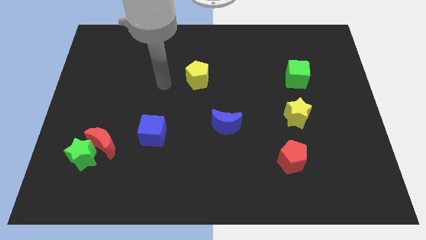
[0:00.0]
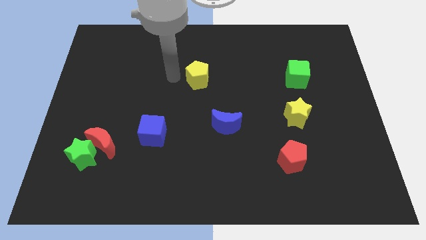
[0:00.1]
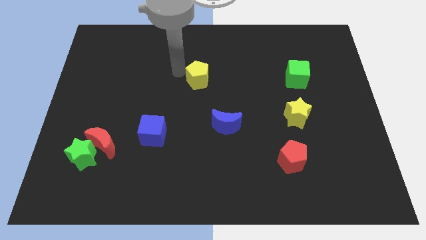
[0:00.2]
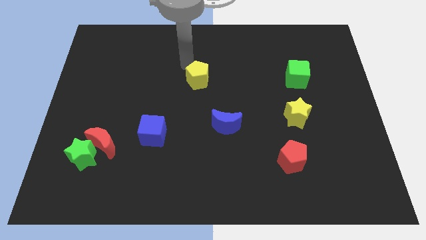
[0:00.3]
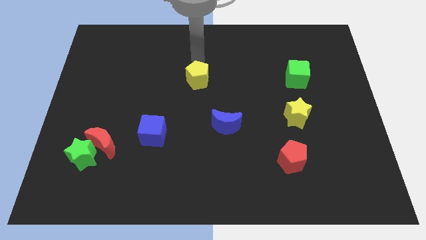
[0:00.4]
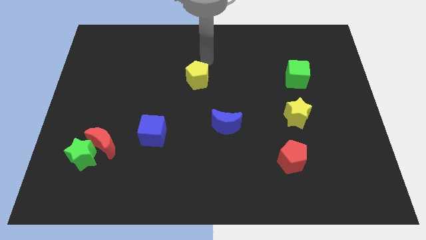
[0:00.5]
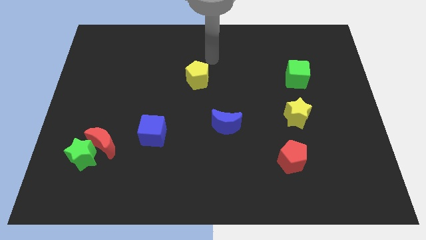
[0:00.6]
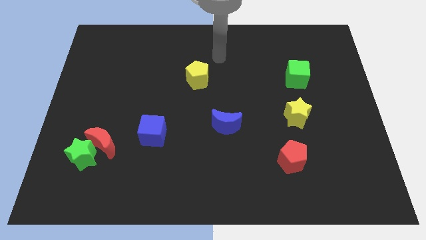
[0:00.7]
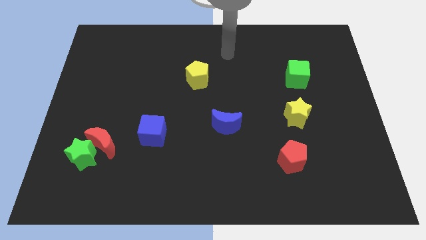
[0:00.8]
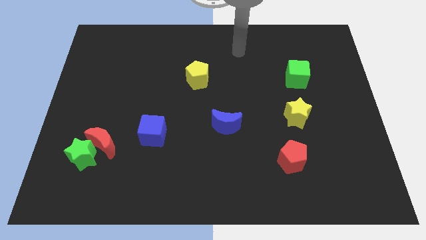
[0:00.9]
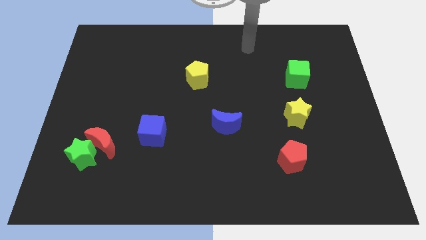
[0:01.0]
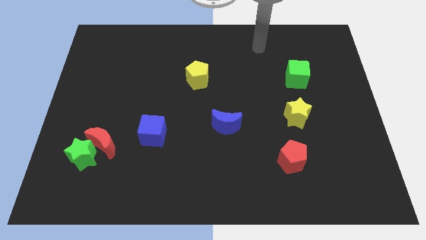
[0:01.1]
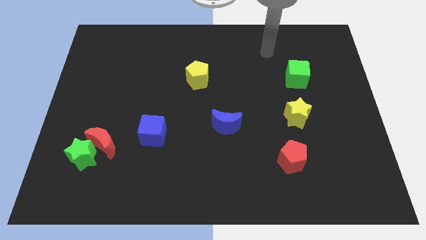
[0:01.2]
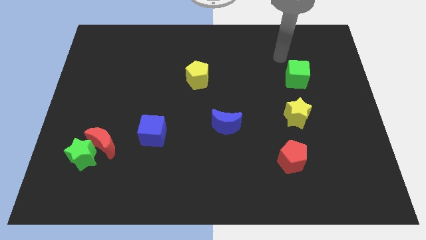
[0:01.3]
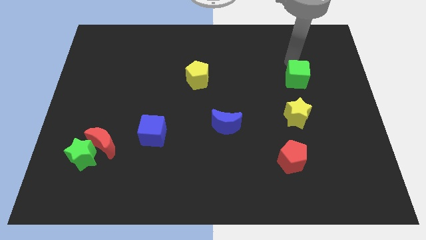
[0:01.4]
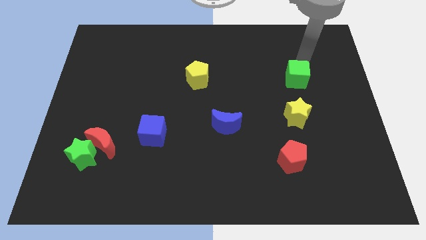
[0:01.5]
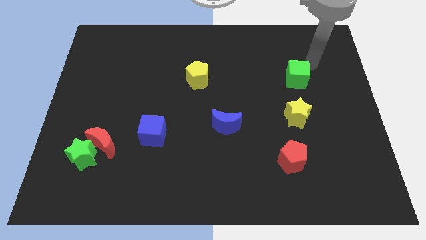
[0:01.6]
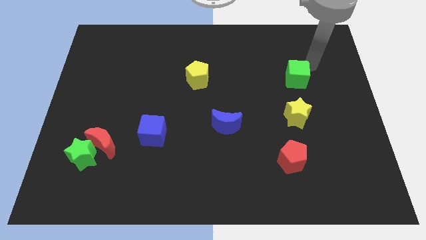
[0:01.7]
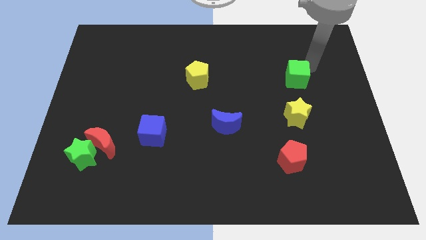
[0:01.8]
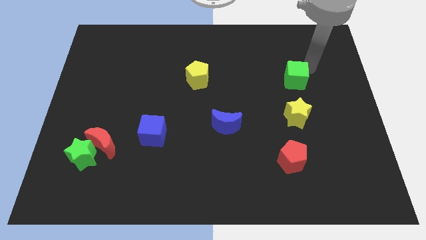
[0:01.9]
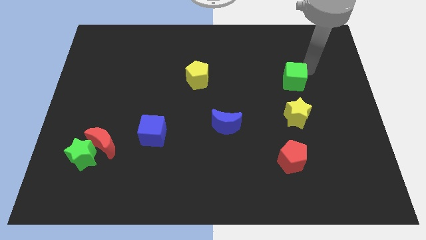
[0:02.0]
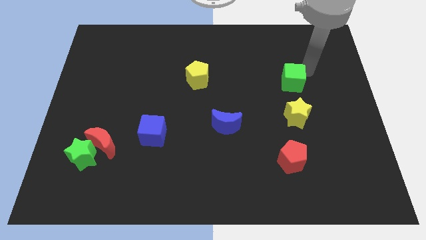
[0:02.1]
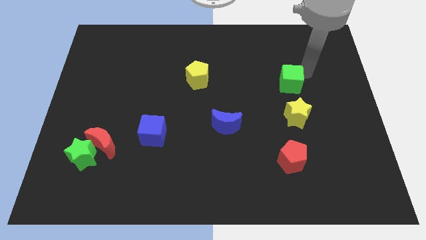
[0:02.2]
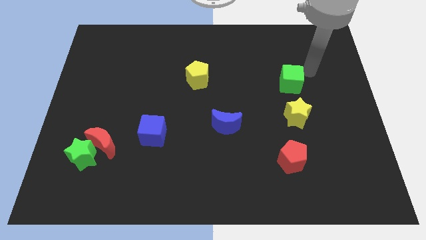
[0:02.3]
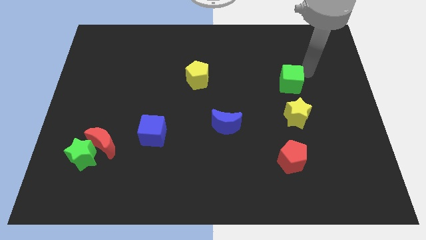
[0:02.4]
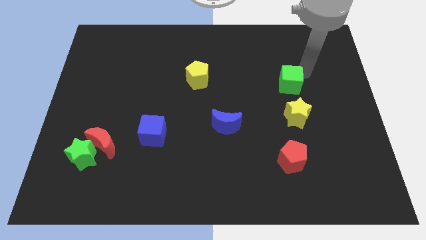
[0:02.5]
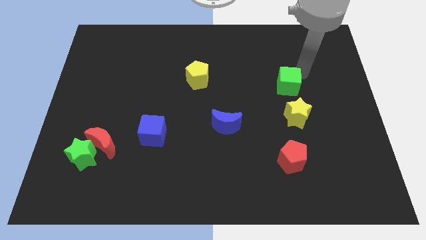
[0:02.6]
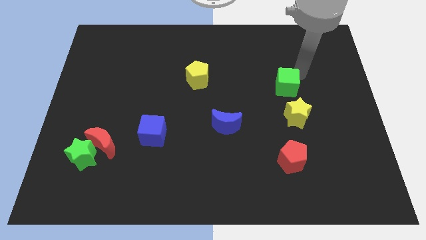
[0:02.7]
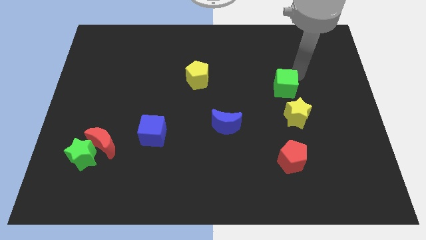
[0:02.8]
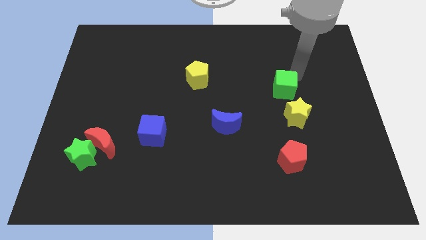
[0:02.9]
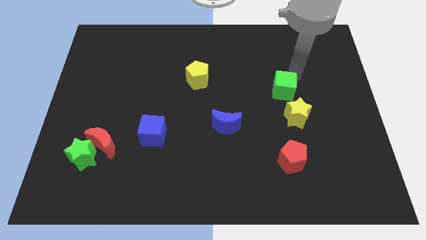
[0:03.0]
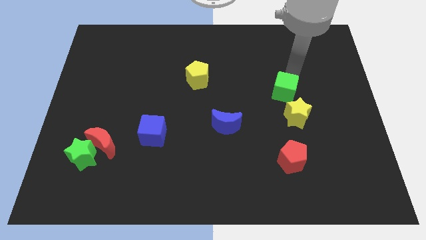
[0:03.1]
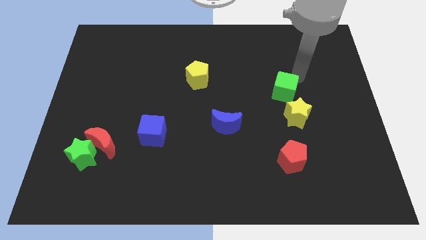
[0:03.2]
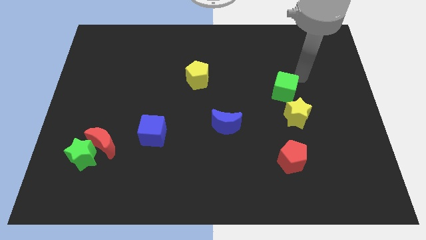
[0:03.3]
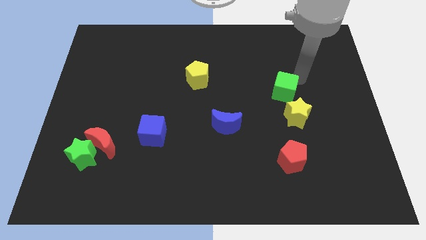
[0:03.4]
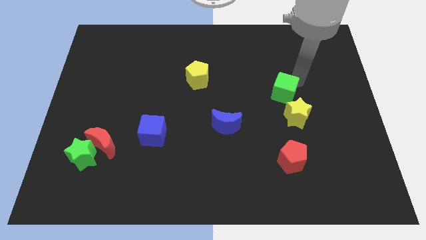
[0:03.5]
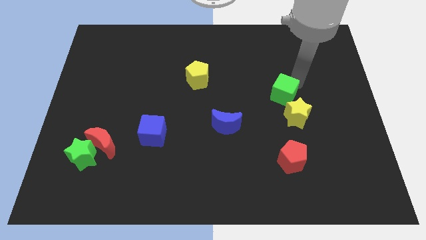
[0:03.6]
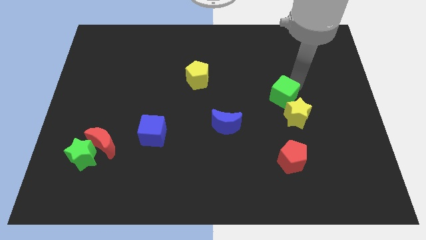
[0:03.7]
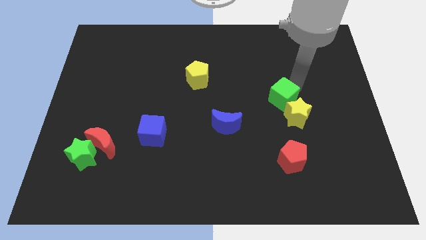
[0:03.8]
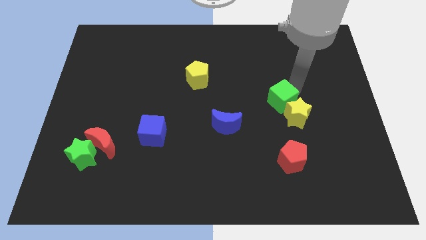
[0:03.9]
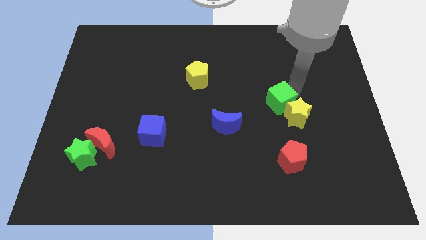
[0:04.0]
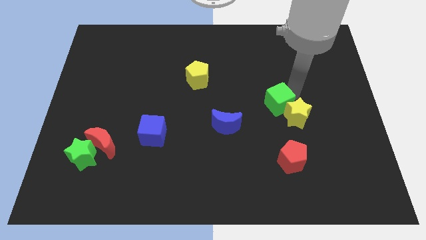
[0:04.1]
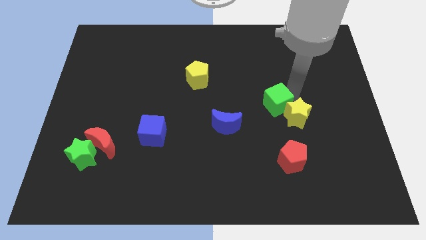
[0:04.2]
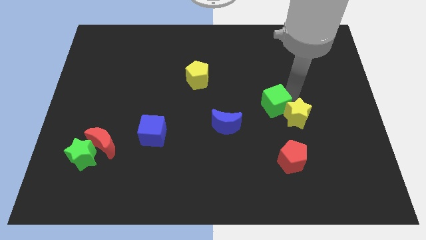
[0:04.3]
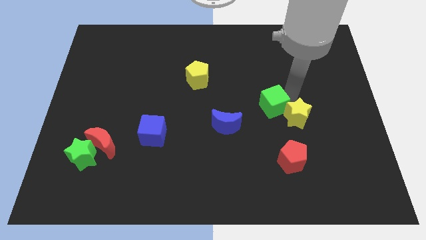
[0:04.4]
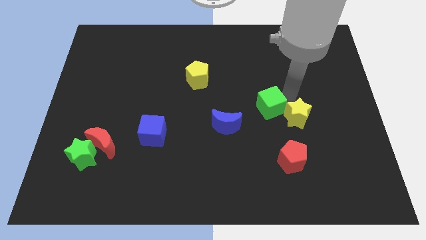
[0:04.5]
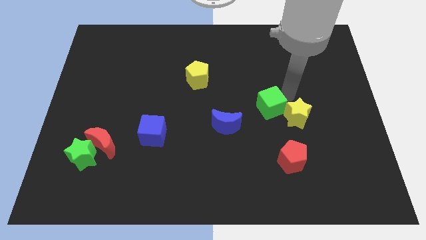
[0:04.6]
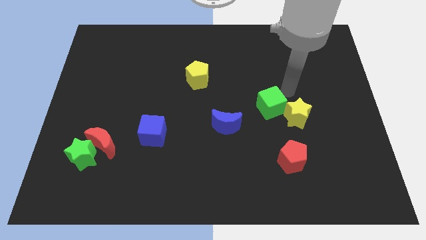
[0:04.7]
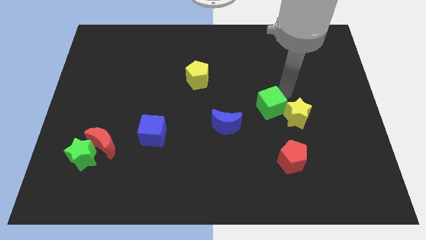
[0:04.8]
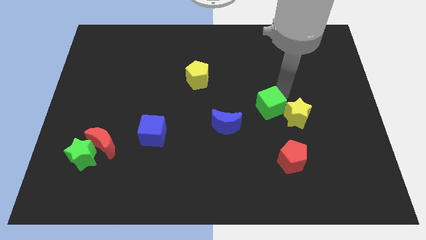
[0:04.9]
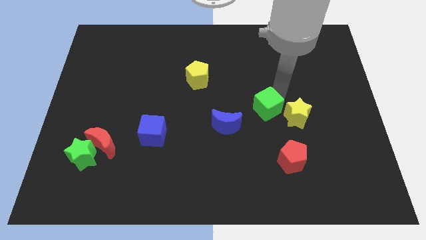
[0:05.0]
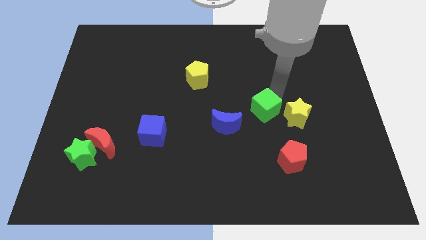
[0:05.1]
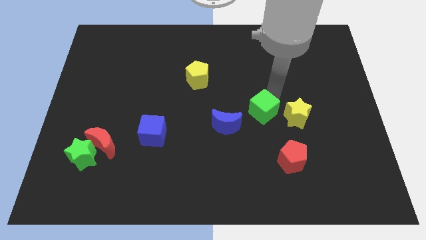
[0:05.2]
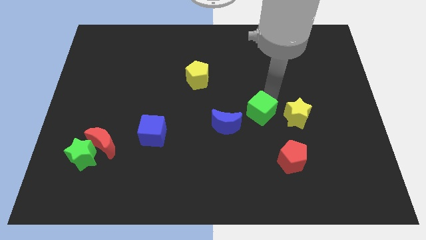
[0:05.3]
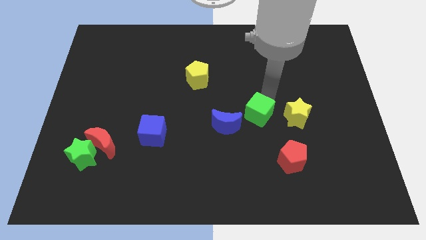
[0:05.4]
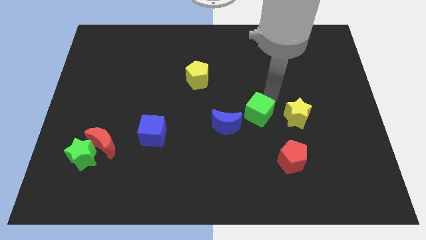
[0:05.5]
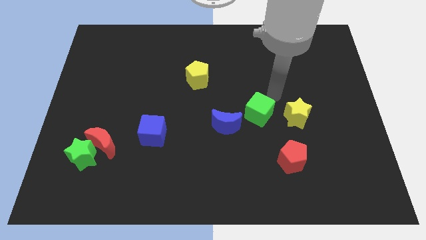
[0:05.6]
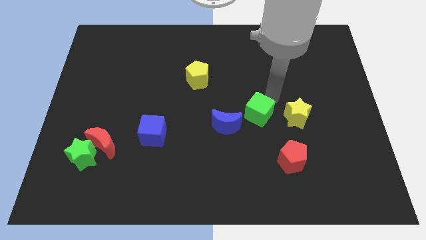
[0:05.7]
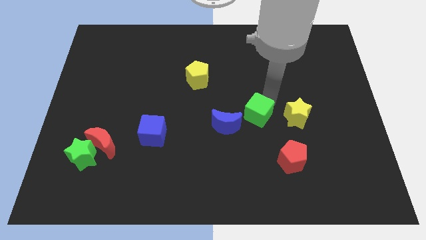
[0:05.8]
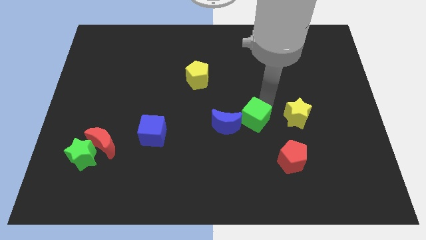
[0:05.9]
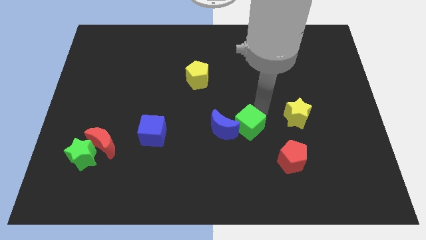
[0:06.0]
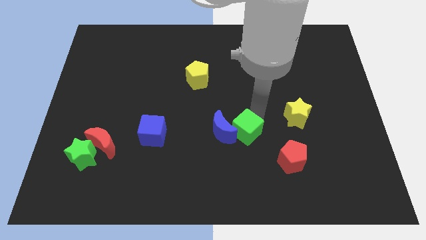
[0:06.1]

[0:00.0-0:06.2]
move the green cube downwards and then to the left

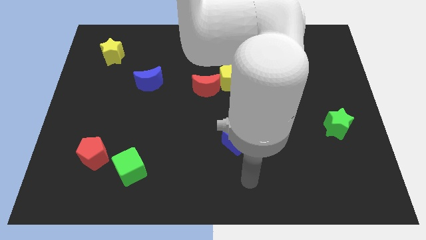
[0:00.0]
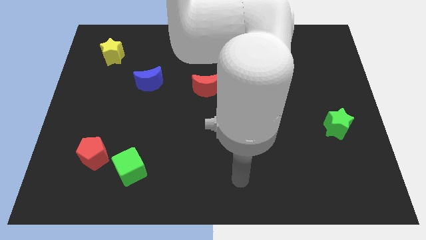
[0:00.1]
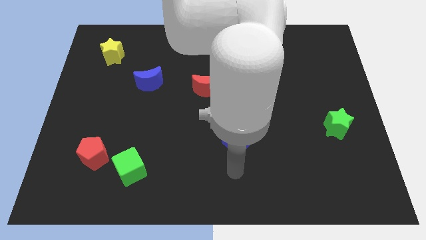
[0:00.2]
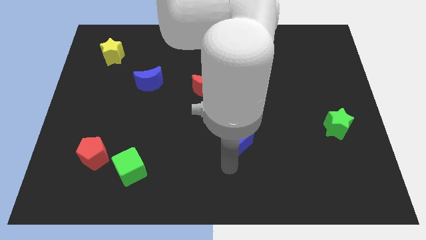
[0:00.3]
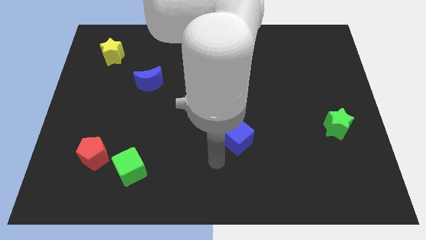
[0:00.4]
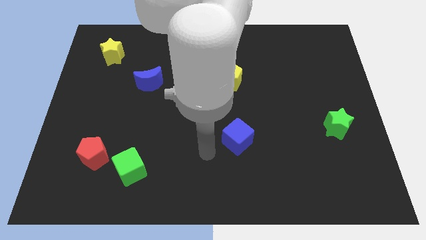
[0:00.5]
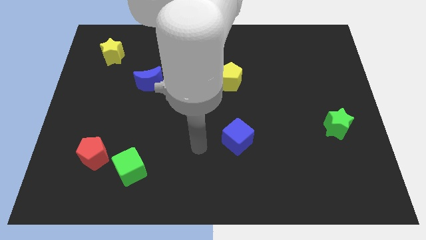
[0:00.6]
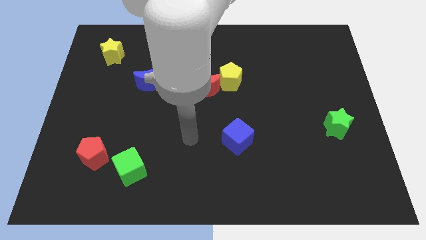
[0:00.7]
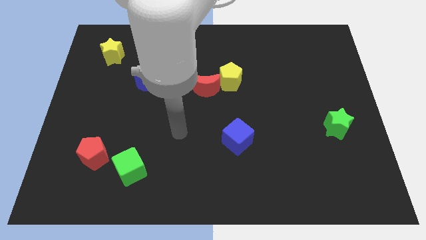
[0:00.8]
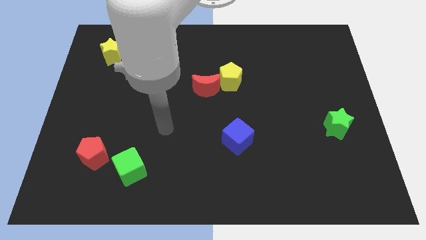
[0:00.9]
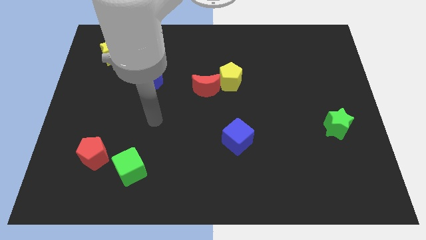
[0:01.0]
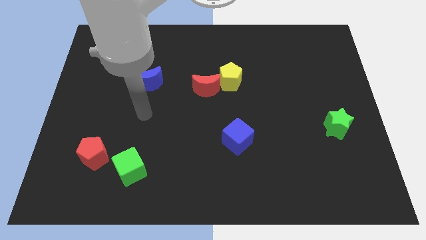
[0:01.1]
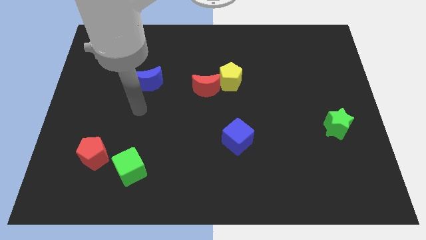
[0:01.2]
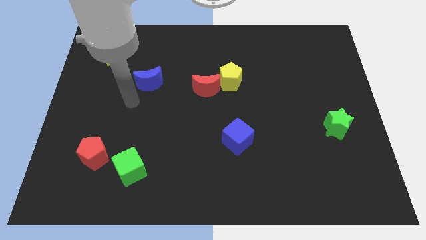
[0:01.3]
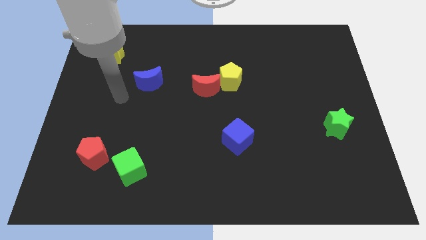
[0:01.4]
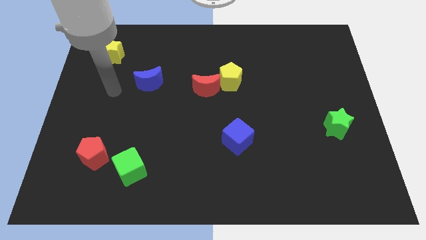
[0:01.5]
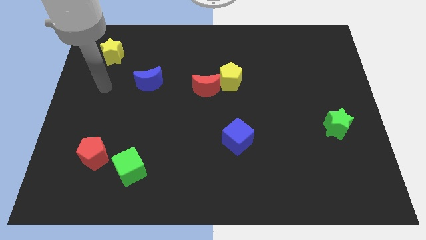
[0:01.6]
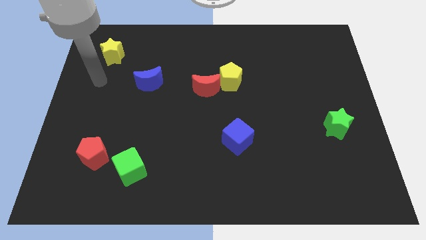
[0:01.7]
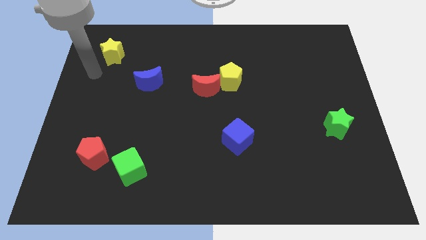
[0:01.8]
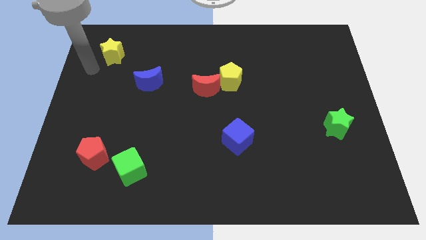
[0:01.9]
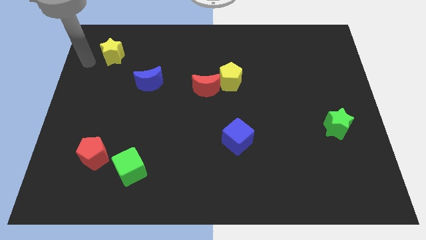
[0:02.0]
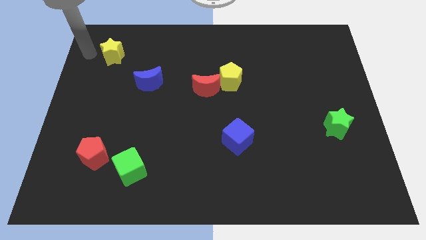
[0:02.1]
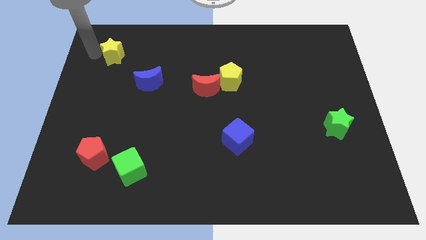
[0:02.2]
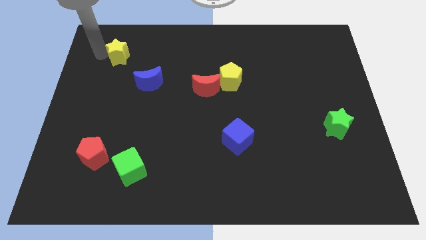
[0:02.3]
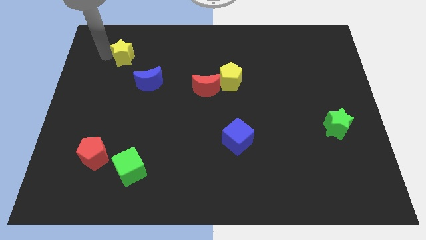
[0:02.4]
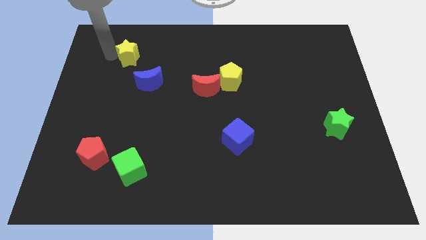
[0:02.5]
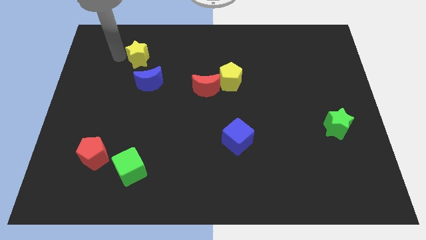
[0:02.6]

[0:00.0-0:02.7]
push the yellow star right a bit
